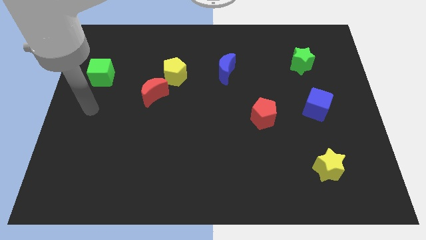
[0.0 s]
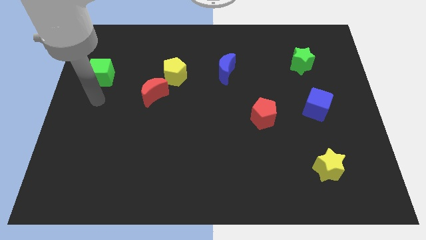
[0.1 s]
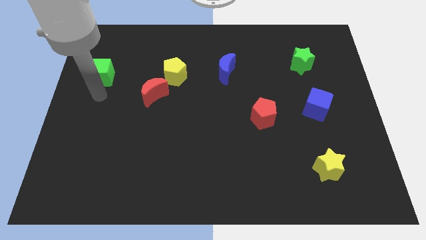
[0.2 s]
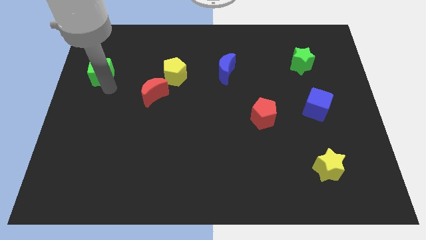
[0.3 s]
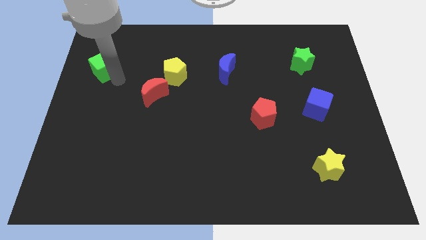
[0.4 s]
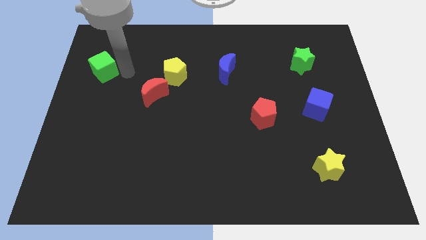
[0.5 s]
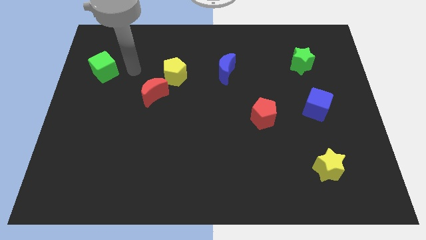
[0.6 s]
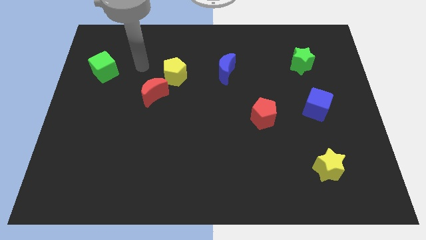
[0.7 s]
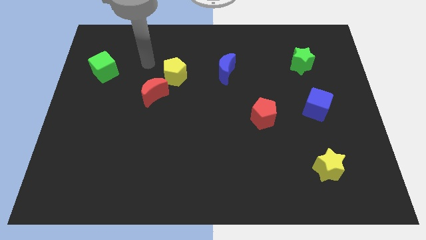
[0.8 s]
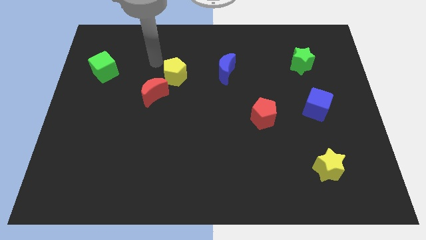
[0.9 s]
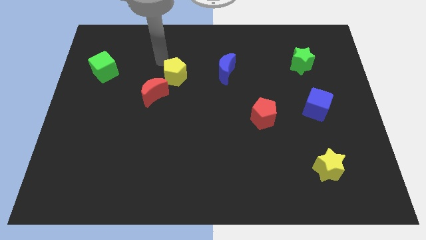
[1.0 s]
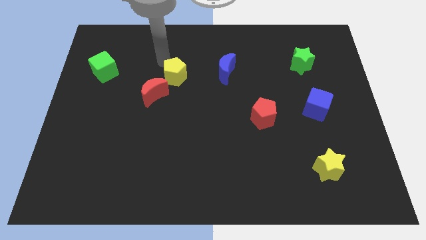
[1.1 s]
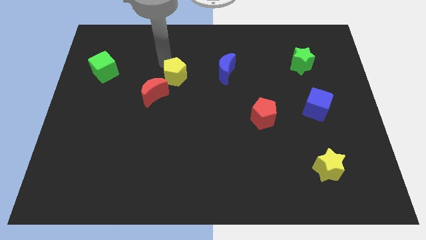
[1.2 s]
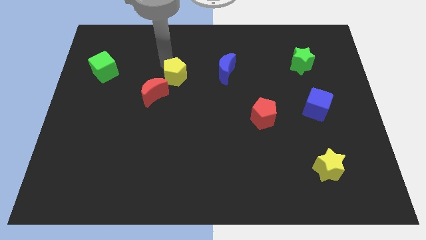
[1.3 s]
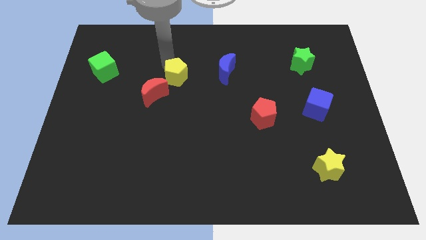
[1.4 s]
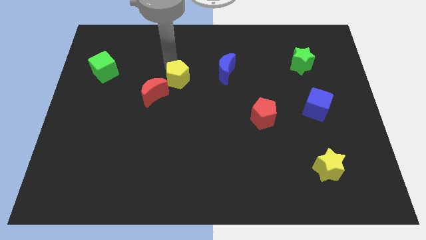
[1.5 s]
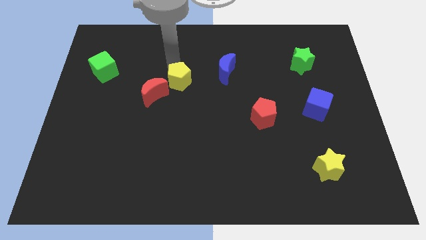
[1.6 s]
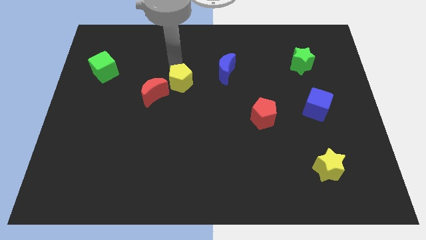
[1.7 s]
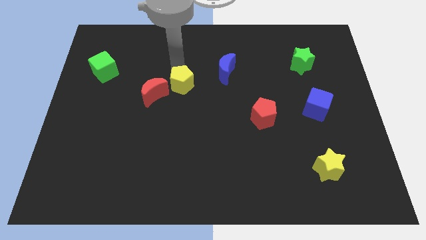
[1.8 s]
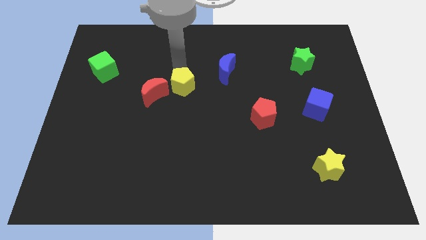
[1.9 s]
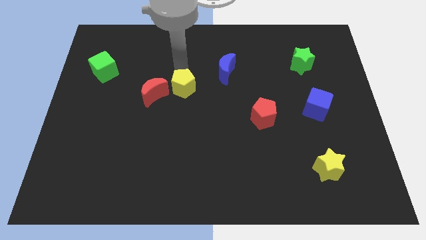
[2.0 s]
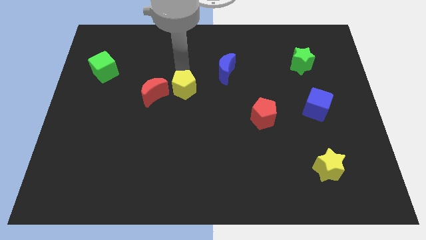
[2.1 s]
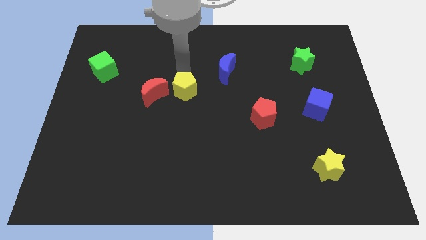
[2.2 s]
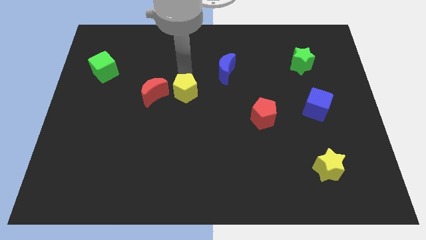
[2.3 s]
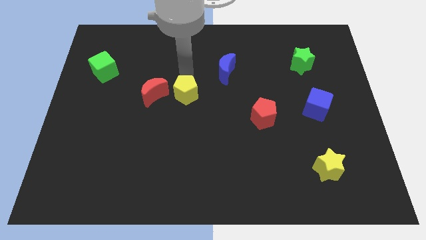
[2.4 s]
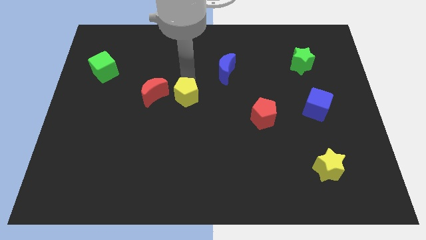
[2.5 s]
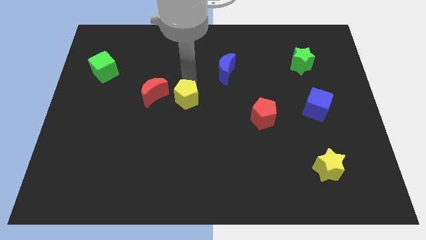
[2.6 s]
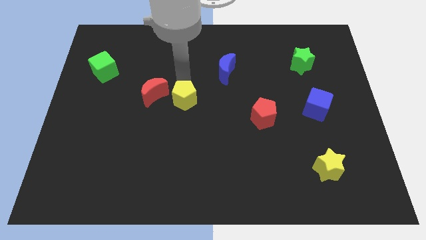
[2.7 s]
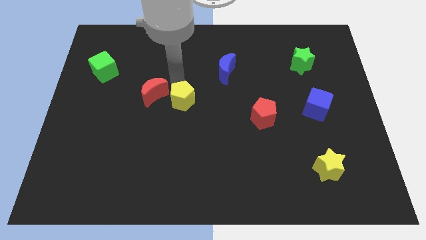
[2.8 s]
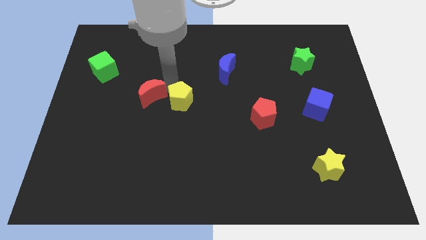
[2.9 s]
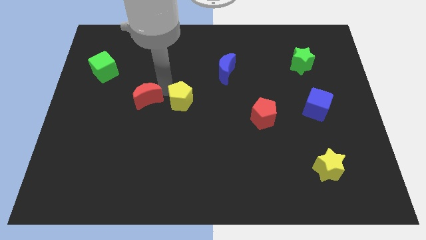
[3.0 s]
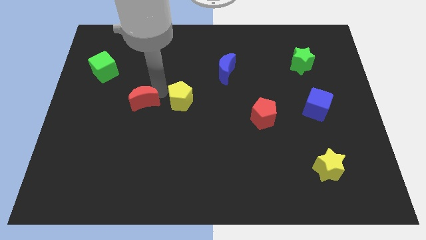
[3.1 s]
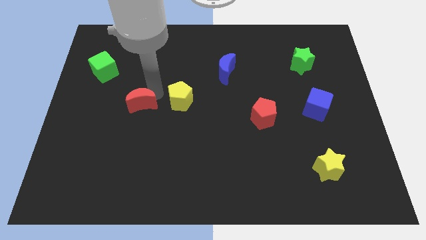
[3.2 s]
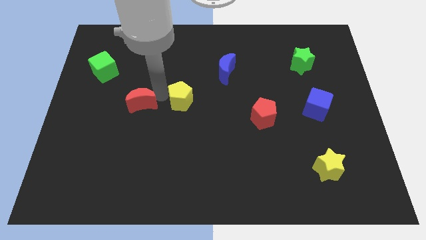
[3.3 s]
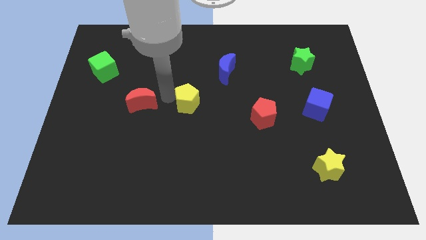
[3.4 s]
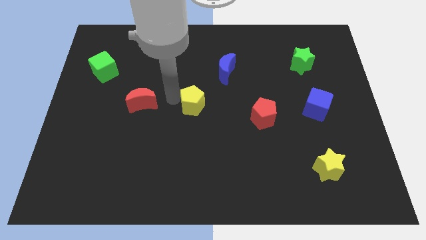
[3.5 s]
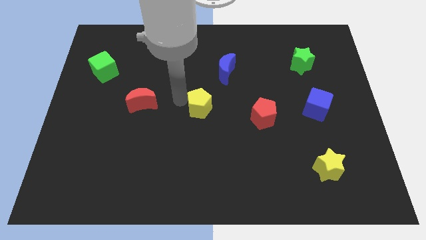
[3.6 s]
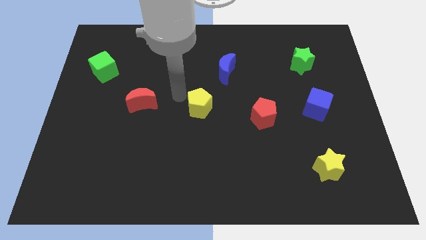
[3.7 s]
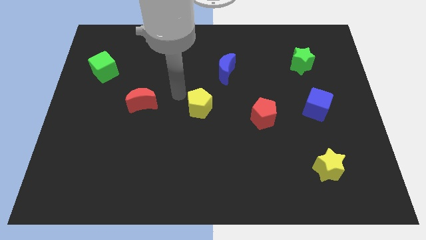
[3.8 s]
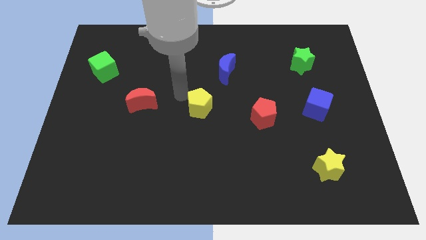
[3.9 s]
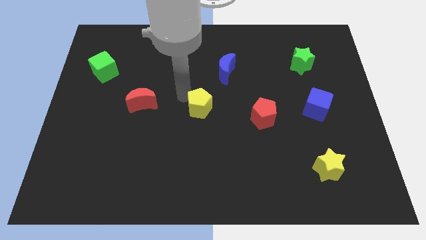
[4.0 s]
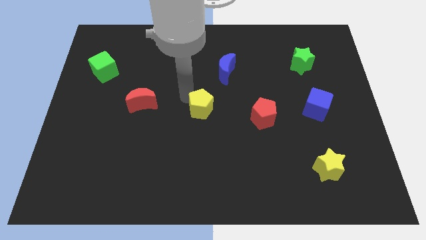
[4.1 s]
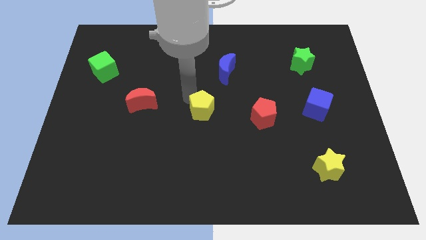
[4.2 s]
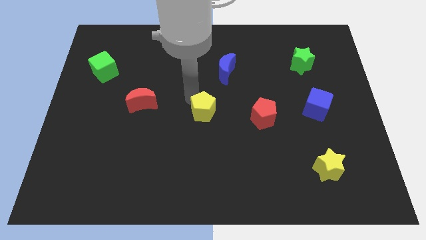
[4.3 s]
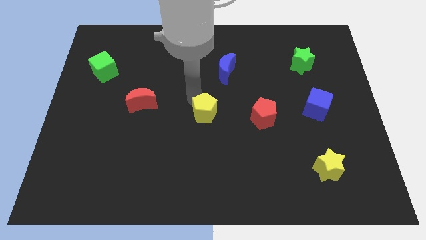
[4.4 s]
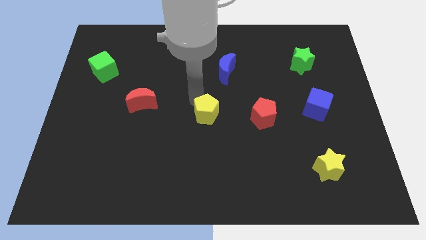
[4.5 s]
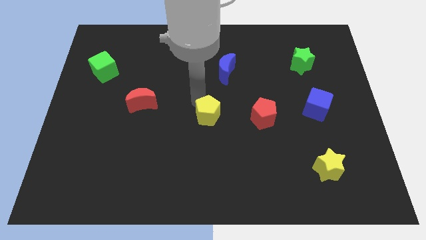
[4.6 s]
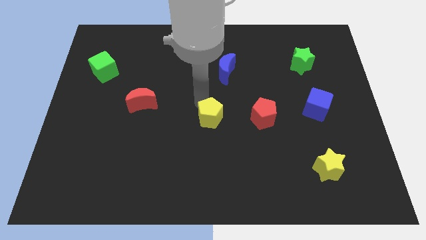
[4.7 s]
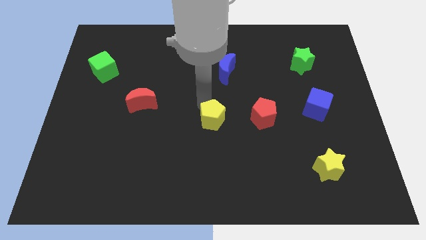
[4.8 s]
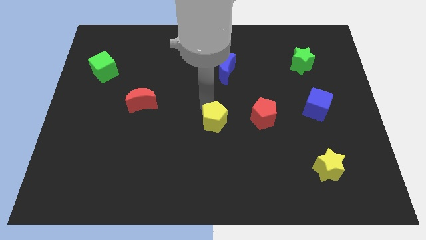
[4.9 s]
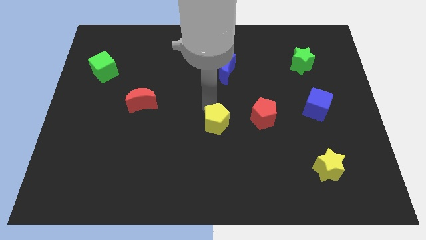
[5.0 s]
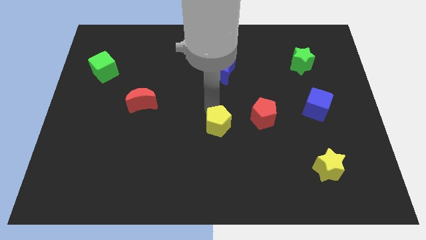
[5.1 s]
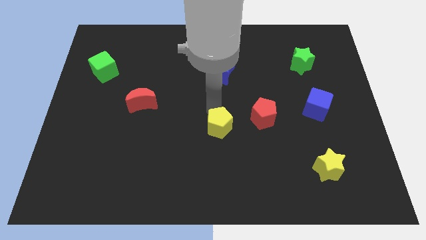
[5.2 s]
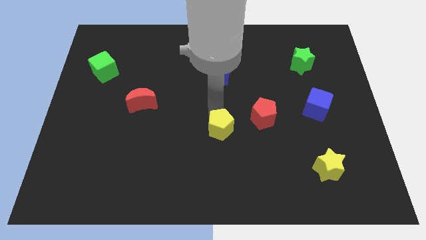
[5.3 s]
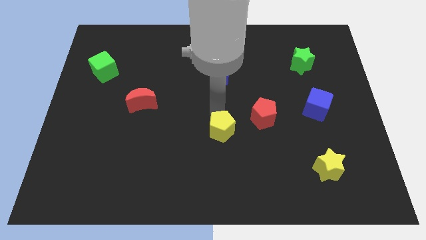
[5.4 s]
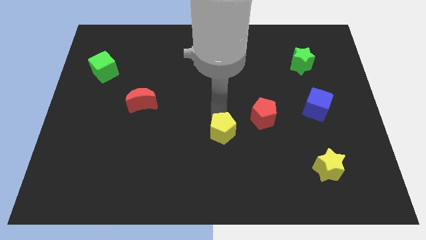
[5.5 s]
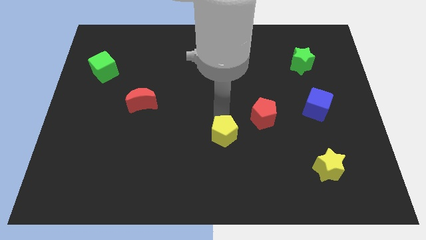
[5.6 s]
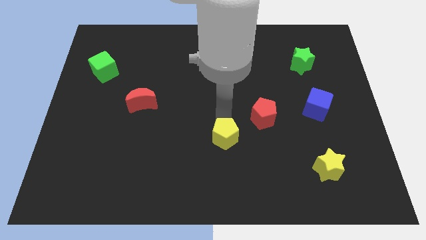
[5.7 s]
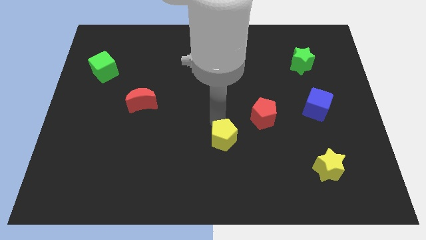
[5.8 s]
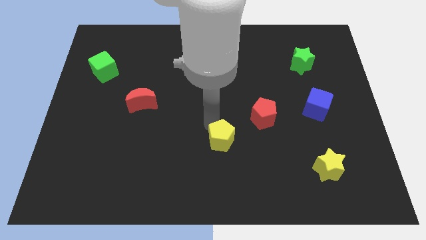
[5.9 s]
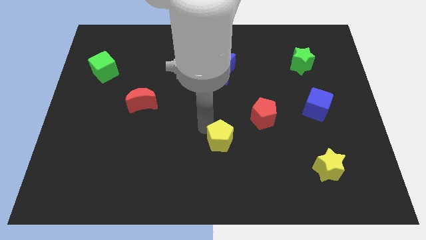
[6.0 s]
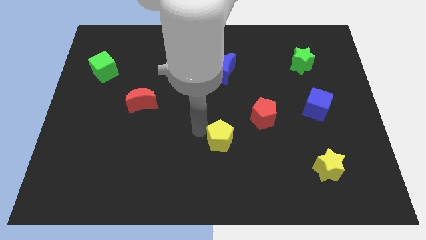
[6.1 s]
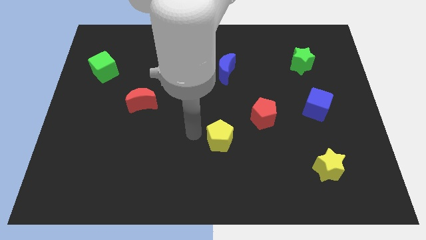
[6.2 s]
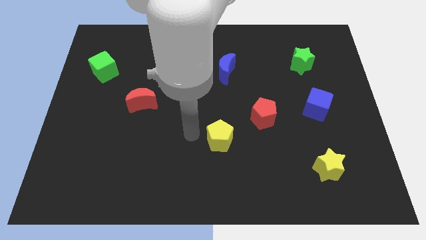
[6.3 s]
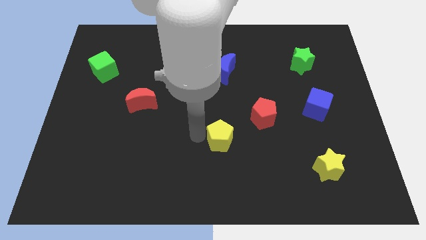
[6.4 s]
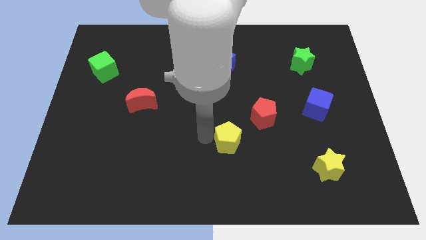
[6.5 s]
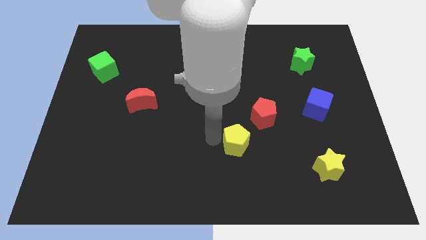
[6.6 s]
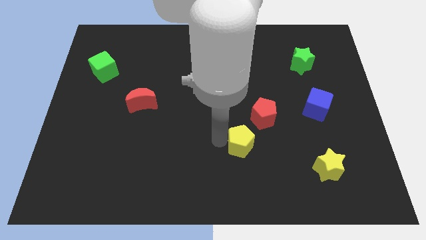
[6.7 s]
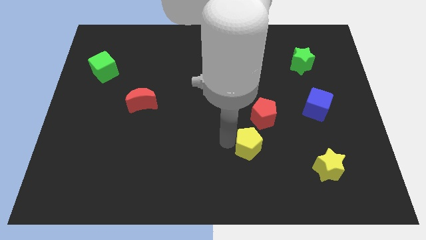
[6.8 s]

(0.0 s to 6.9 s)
slide the yellow pentagon below the red pentagon
